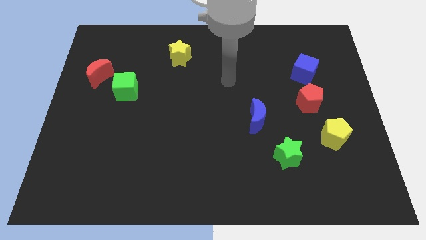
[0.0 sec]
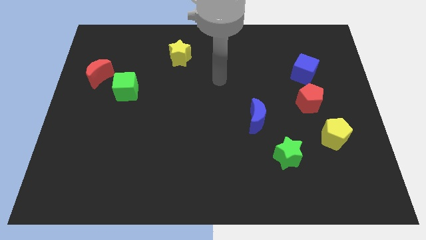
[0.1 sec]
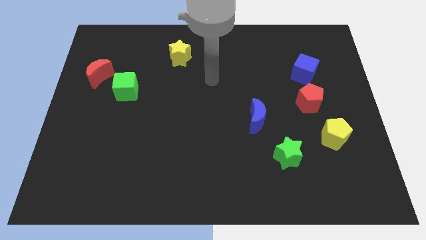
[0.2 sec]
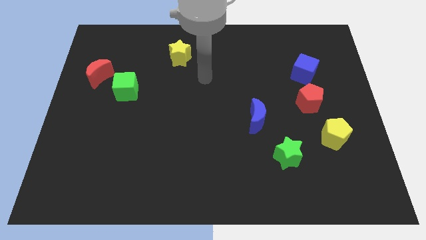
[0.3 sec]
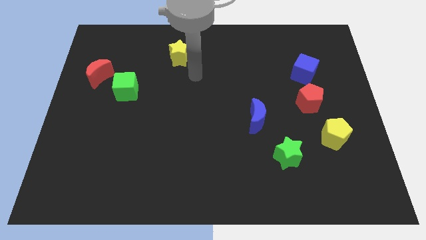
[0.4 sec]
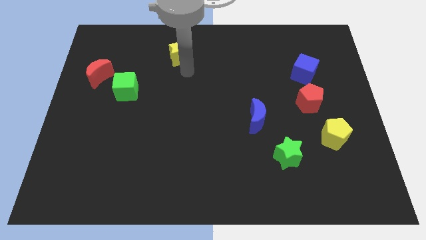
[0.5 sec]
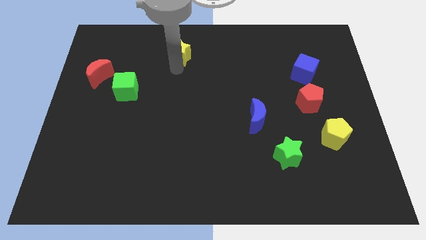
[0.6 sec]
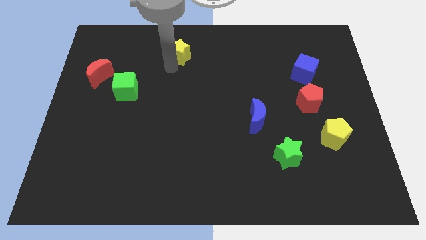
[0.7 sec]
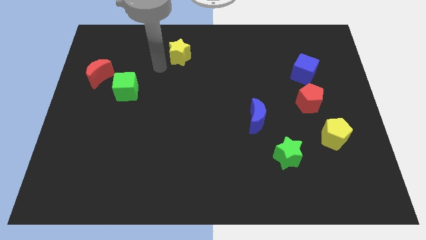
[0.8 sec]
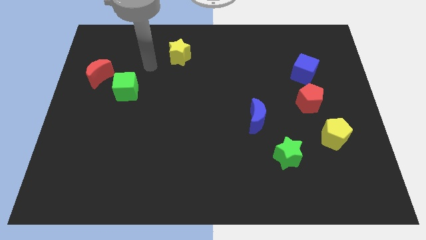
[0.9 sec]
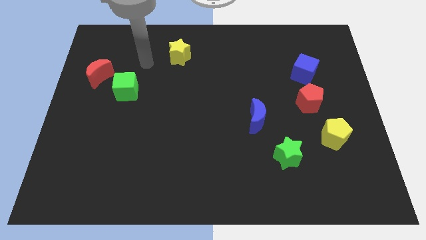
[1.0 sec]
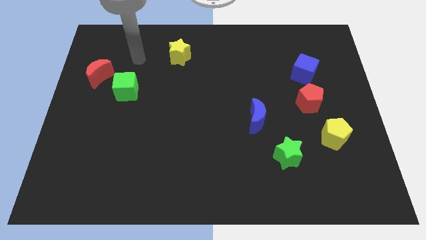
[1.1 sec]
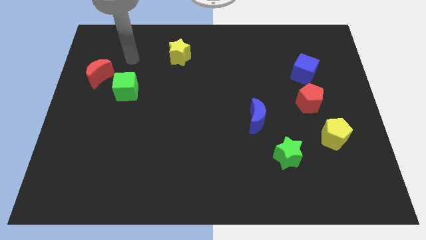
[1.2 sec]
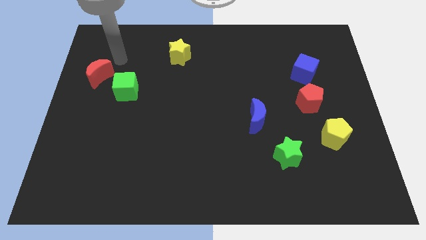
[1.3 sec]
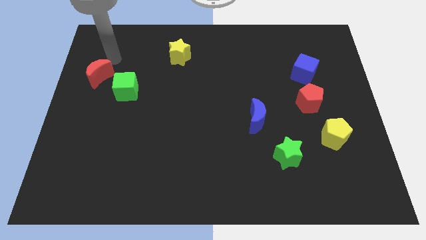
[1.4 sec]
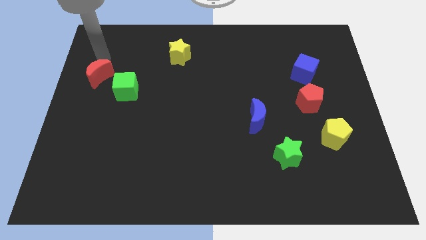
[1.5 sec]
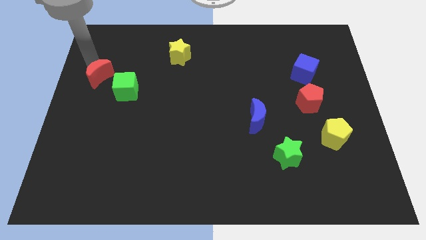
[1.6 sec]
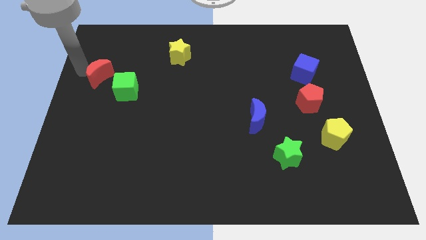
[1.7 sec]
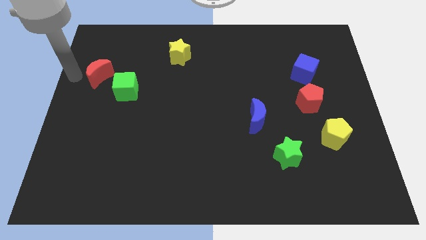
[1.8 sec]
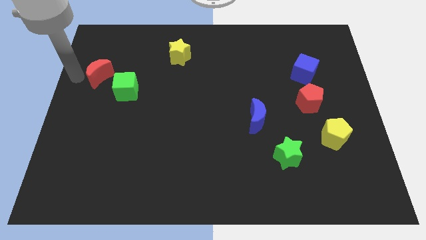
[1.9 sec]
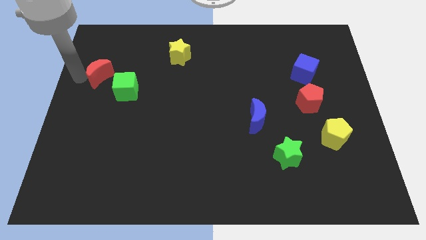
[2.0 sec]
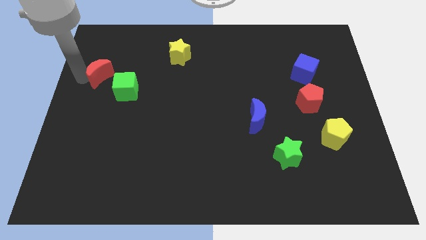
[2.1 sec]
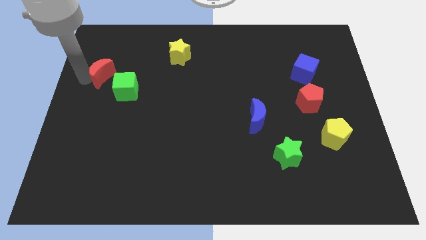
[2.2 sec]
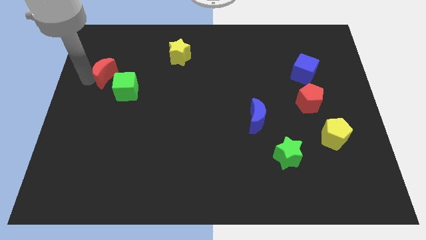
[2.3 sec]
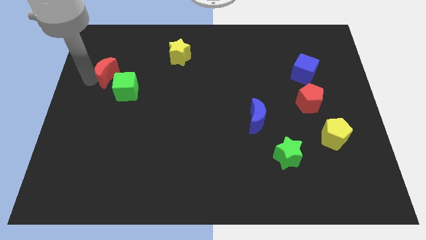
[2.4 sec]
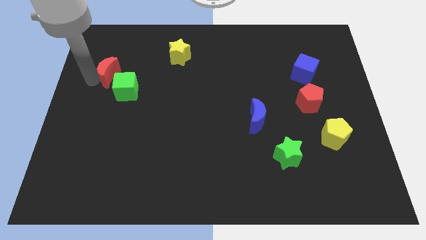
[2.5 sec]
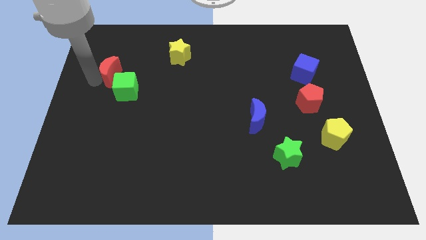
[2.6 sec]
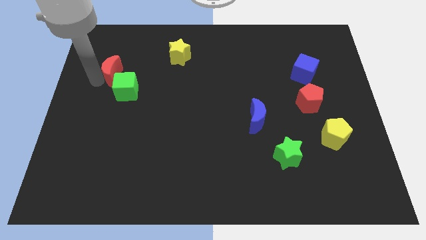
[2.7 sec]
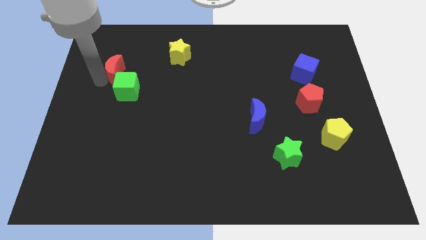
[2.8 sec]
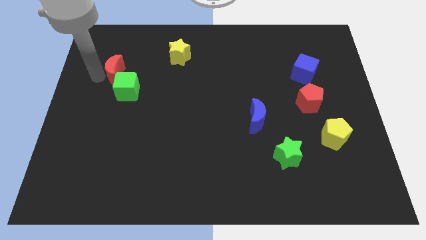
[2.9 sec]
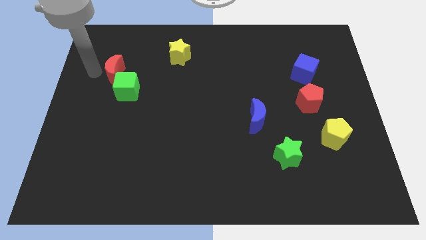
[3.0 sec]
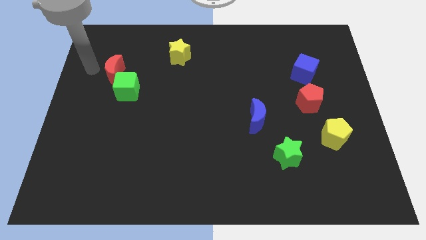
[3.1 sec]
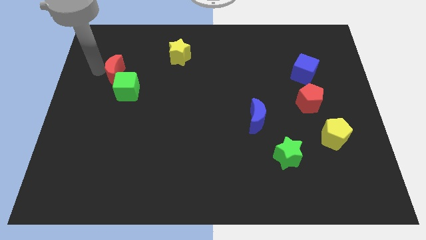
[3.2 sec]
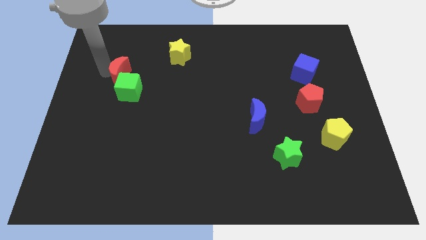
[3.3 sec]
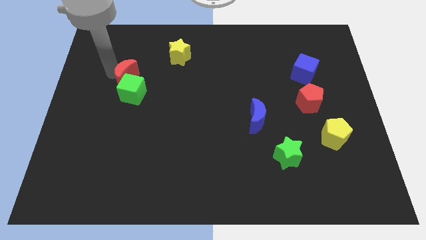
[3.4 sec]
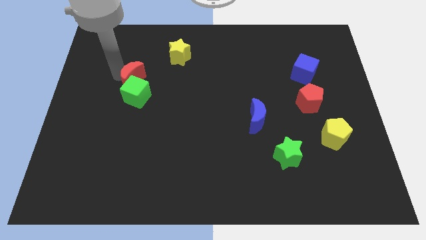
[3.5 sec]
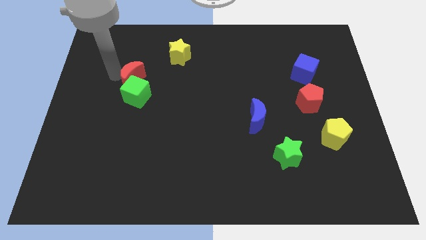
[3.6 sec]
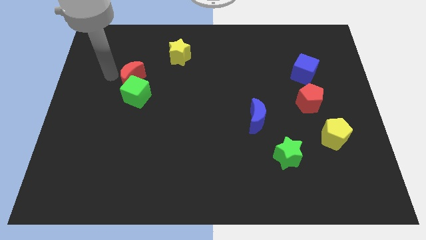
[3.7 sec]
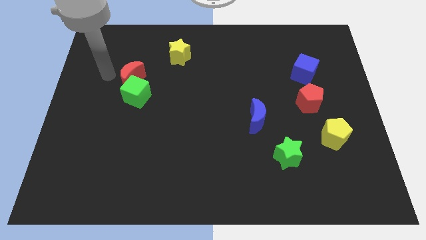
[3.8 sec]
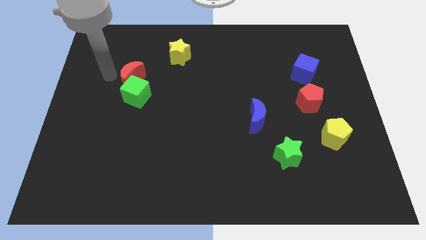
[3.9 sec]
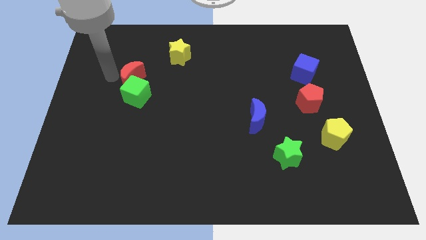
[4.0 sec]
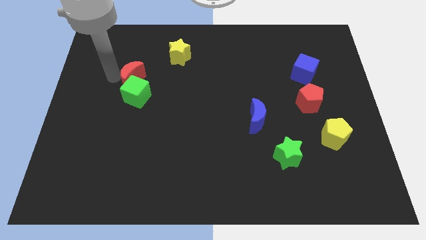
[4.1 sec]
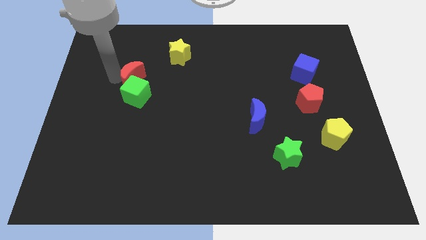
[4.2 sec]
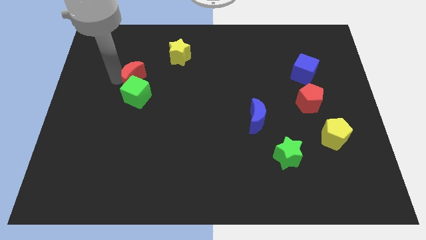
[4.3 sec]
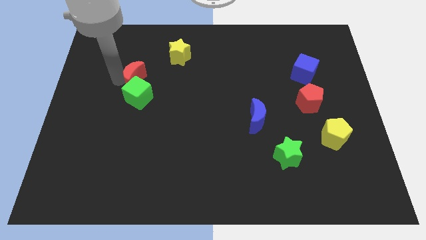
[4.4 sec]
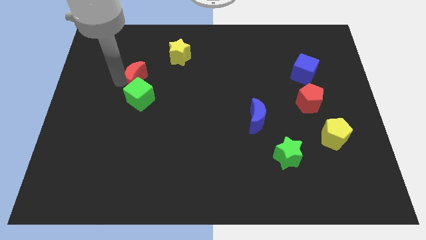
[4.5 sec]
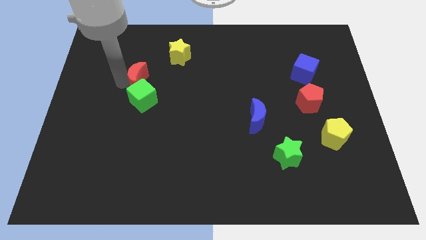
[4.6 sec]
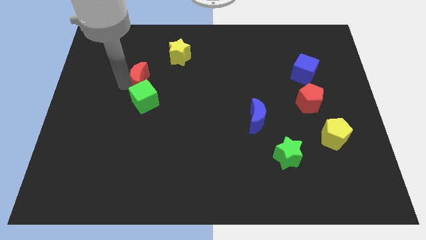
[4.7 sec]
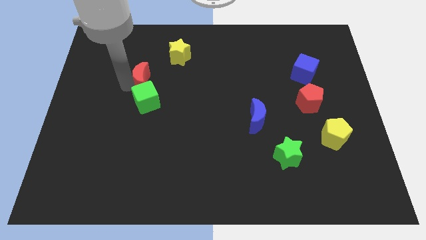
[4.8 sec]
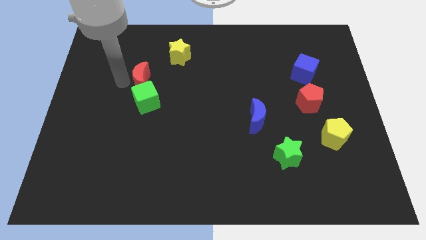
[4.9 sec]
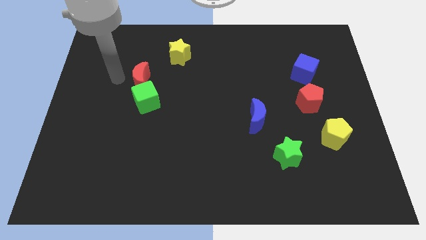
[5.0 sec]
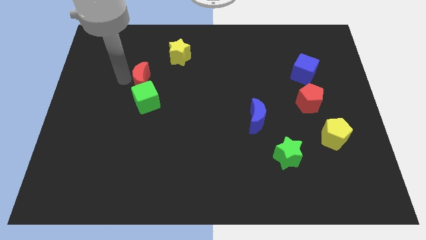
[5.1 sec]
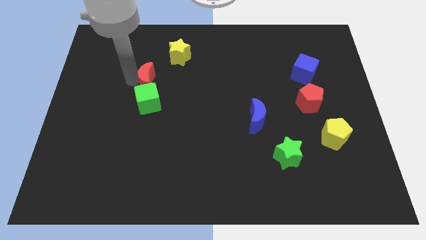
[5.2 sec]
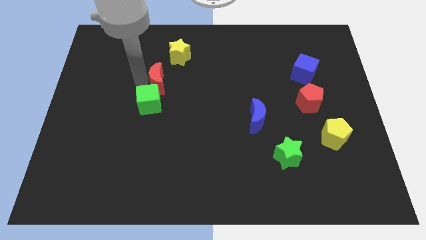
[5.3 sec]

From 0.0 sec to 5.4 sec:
push the red moon to the bottom side of the yellow star

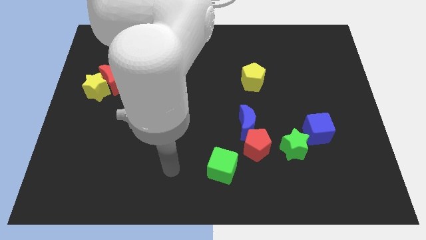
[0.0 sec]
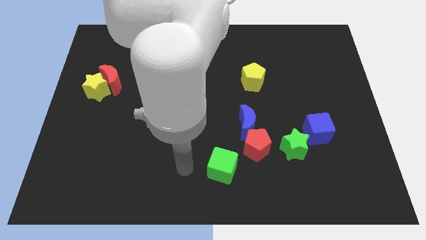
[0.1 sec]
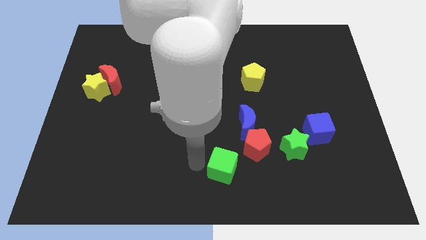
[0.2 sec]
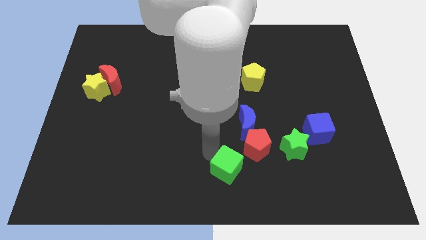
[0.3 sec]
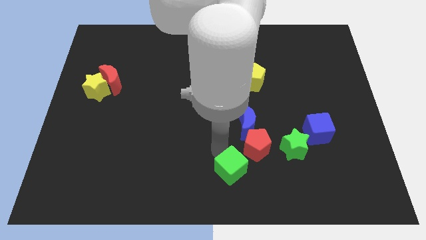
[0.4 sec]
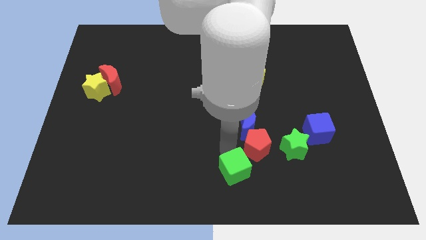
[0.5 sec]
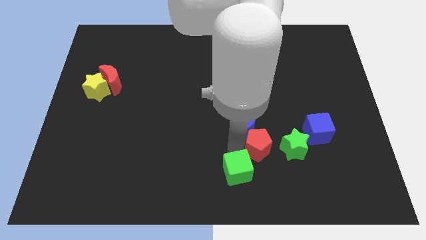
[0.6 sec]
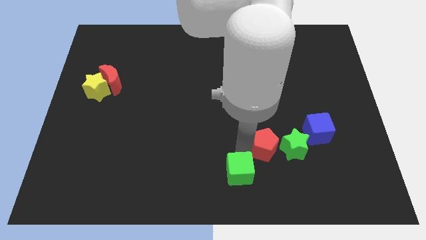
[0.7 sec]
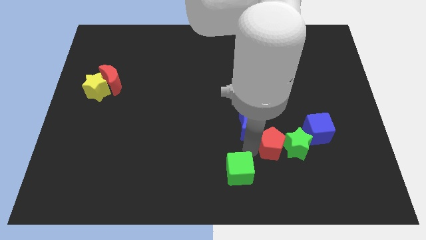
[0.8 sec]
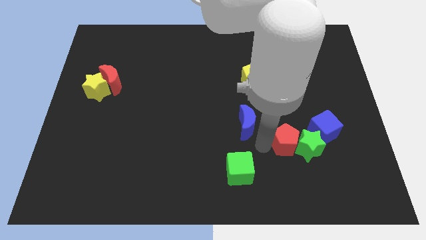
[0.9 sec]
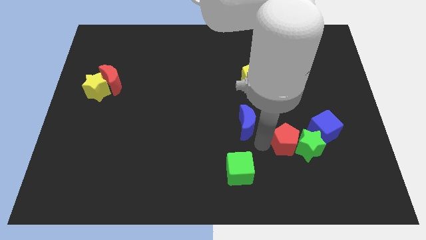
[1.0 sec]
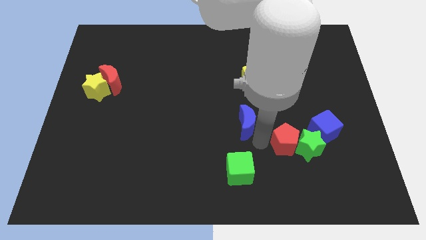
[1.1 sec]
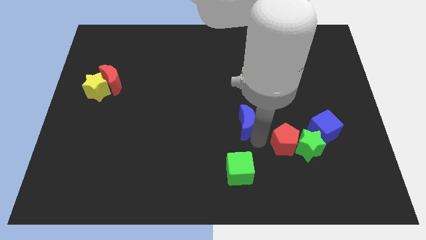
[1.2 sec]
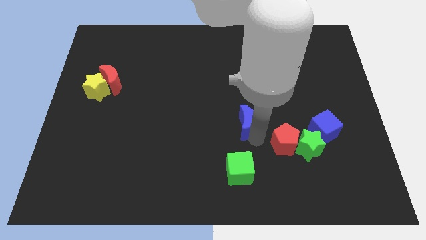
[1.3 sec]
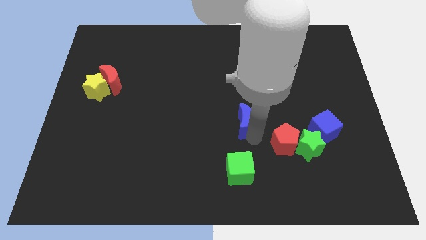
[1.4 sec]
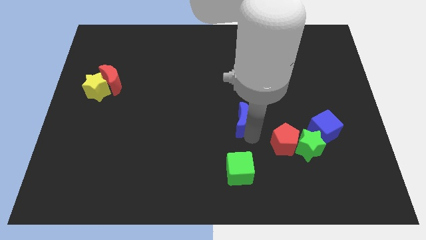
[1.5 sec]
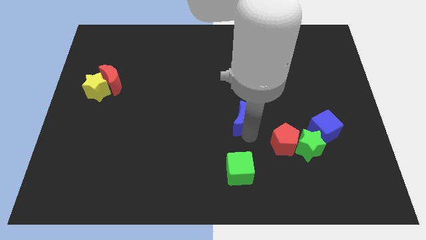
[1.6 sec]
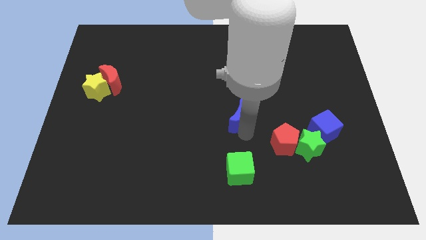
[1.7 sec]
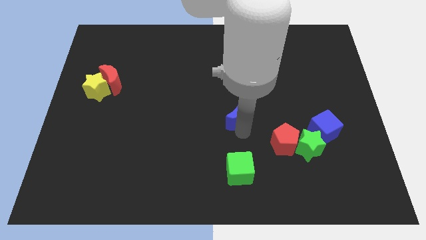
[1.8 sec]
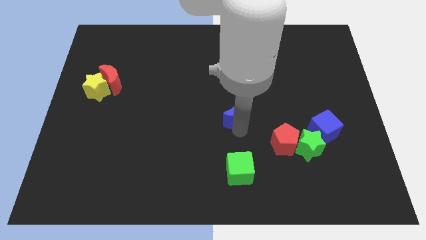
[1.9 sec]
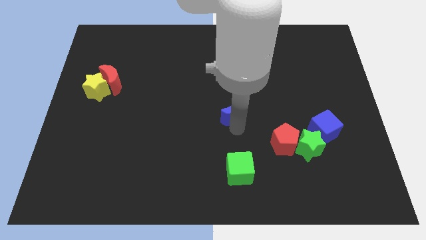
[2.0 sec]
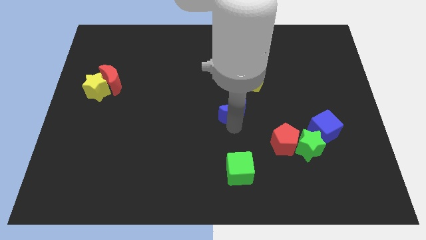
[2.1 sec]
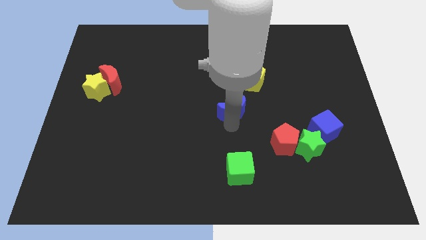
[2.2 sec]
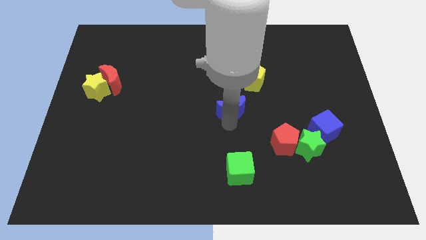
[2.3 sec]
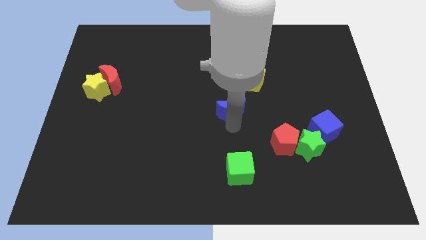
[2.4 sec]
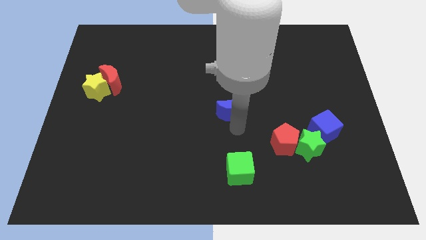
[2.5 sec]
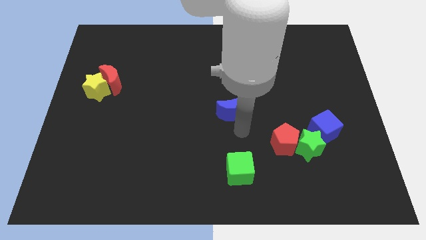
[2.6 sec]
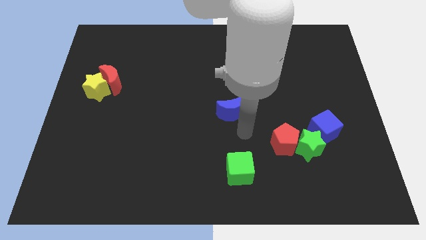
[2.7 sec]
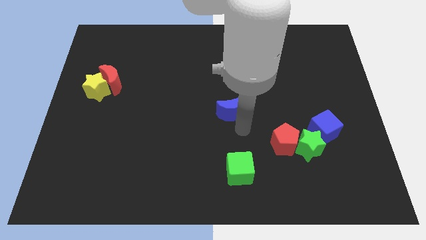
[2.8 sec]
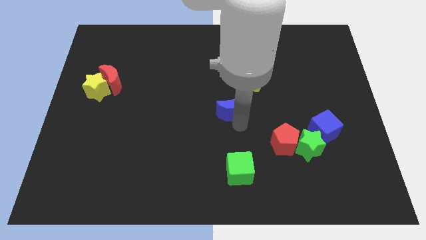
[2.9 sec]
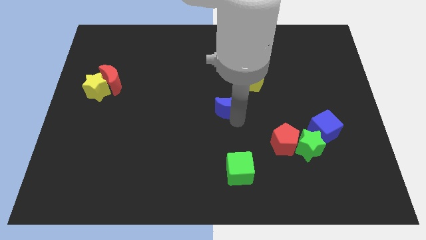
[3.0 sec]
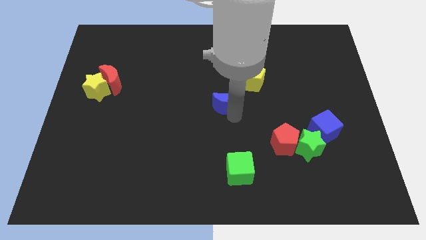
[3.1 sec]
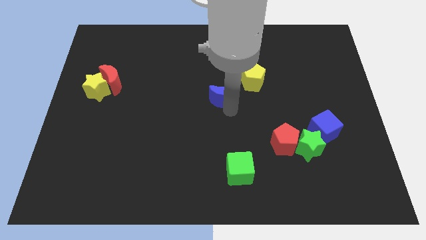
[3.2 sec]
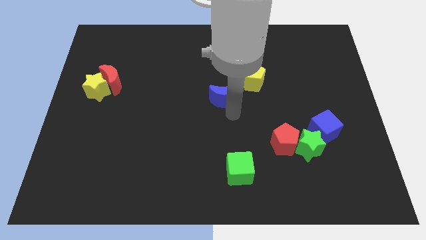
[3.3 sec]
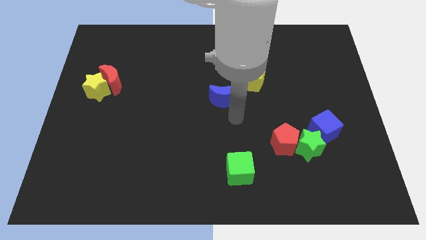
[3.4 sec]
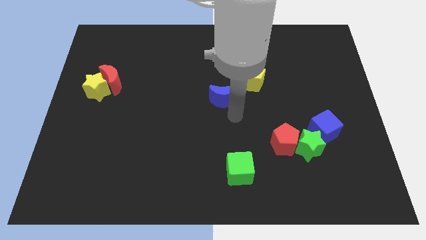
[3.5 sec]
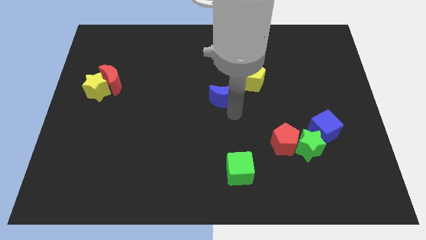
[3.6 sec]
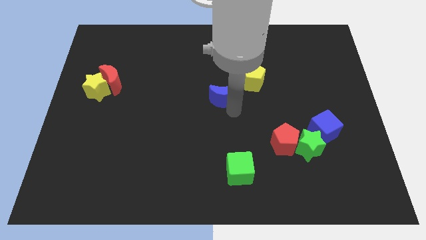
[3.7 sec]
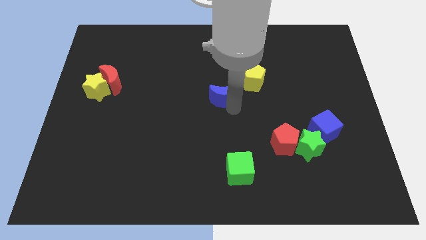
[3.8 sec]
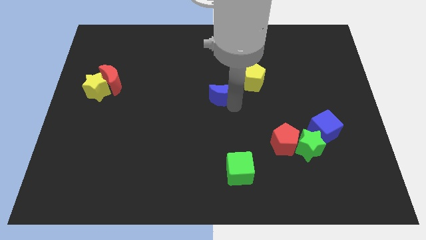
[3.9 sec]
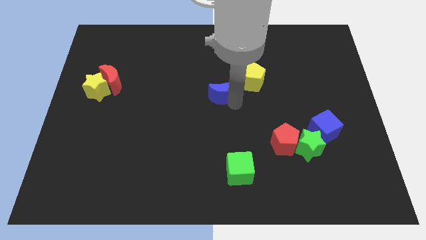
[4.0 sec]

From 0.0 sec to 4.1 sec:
move the blue moon to the left of the yellow pentagon
